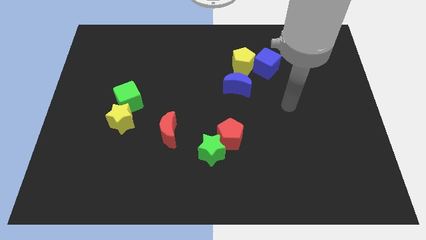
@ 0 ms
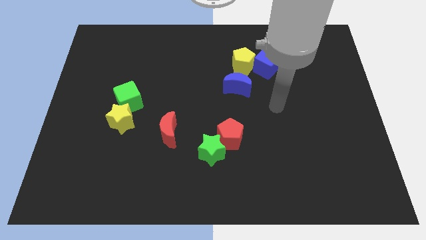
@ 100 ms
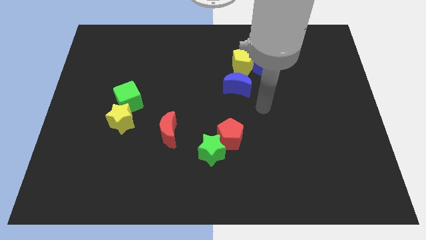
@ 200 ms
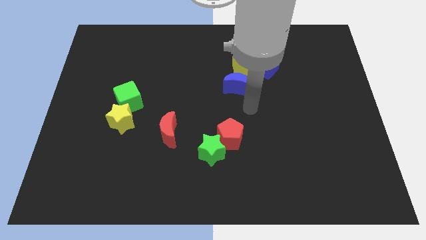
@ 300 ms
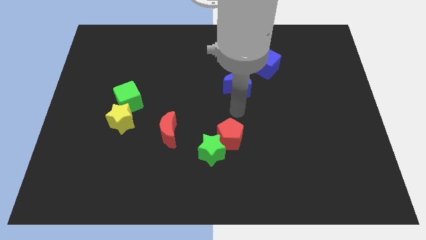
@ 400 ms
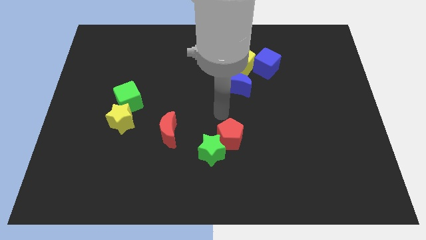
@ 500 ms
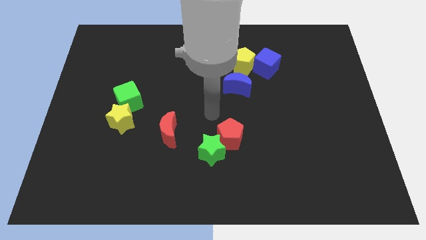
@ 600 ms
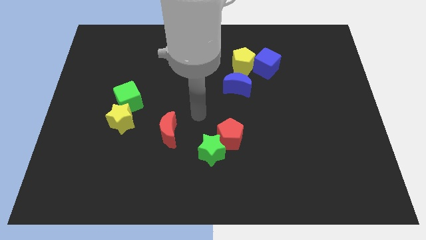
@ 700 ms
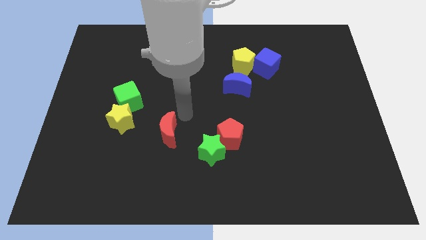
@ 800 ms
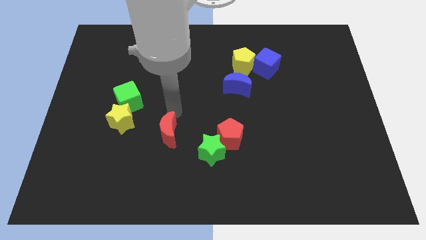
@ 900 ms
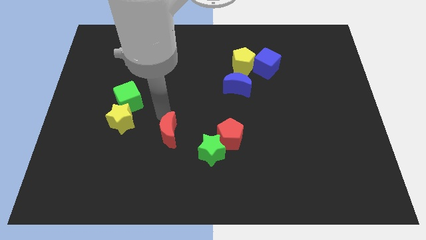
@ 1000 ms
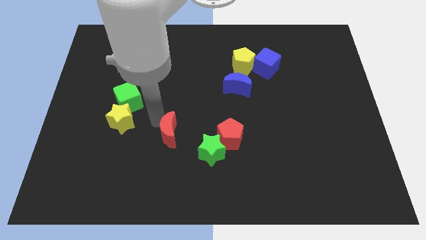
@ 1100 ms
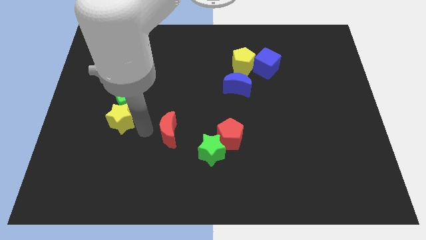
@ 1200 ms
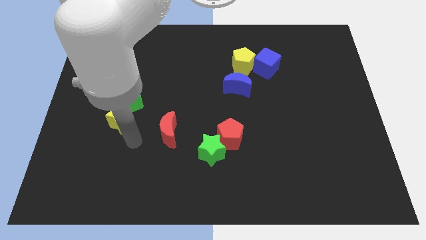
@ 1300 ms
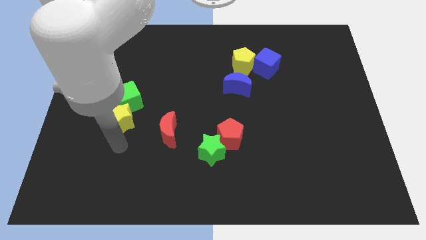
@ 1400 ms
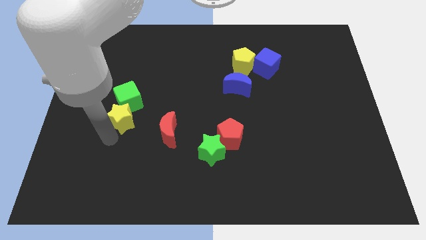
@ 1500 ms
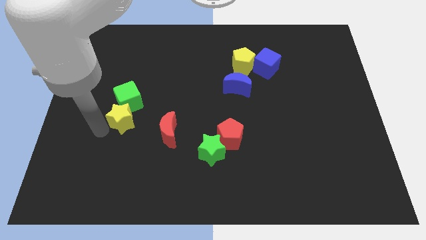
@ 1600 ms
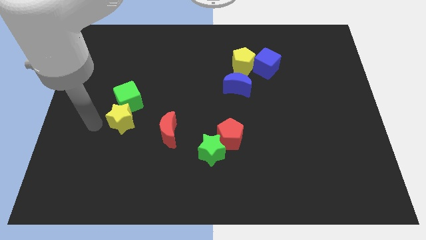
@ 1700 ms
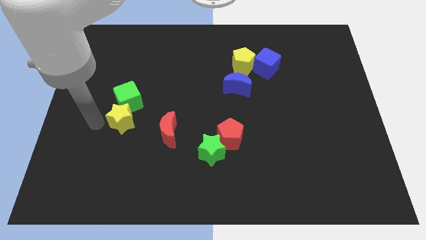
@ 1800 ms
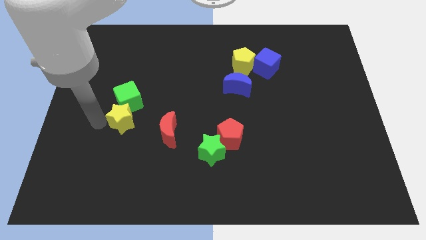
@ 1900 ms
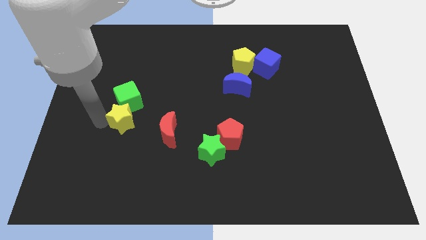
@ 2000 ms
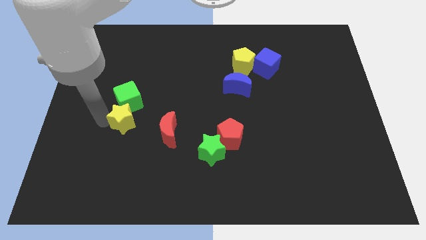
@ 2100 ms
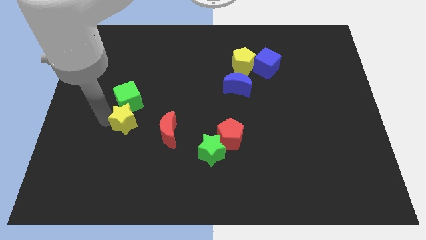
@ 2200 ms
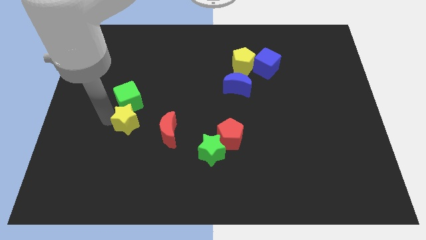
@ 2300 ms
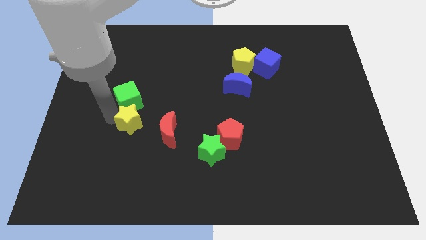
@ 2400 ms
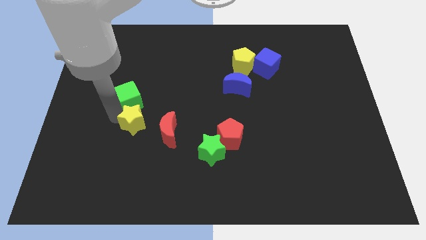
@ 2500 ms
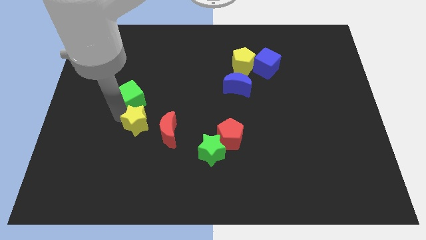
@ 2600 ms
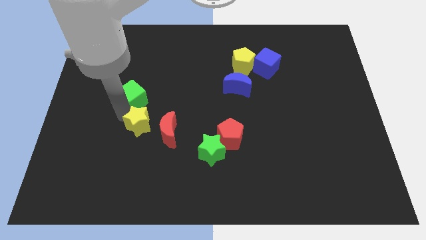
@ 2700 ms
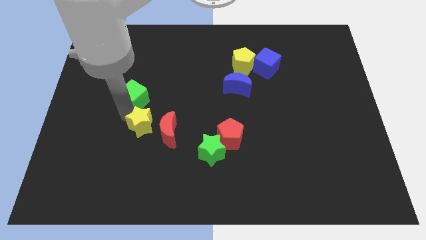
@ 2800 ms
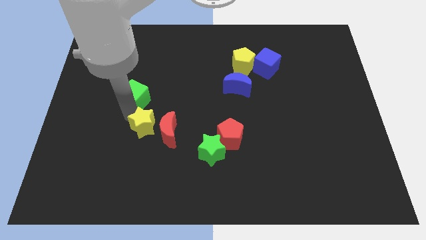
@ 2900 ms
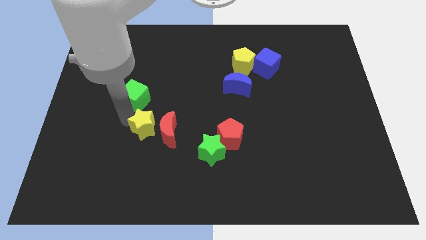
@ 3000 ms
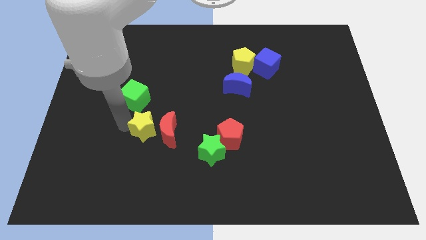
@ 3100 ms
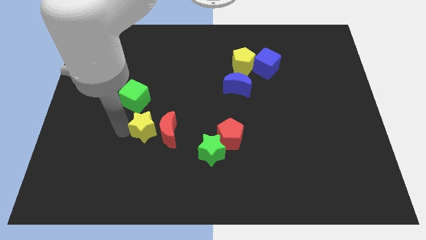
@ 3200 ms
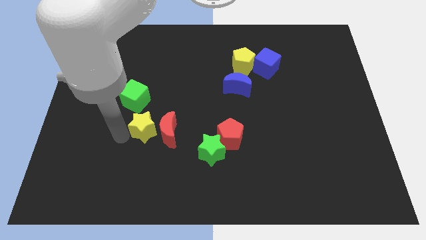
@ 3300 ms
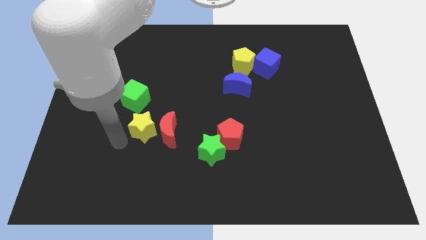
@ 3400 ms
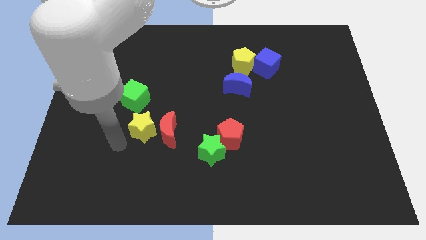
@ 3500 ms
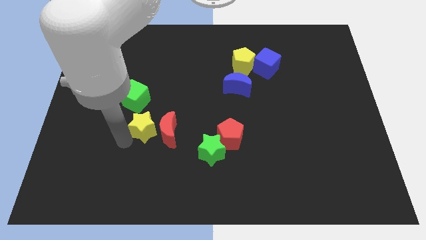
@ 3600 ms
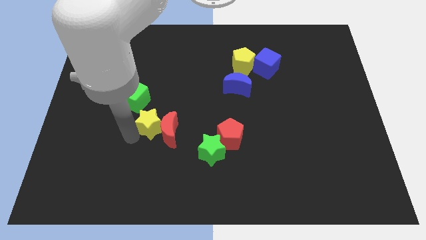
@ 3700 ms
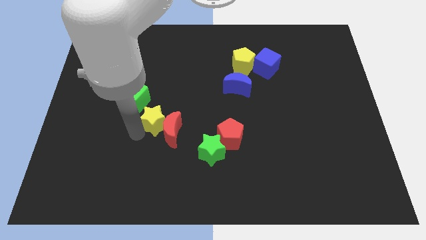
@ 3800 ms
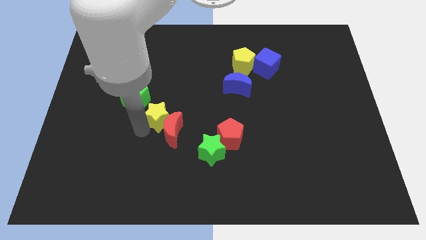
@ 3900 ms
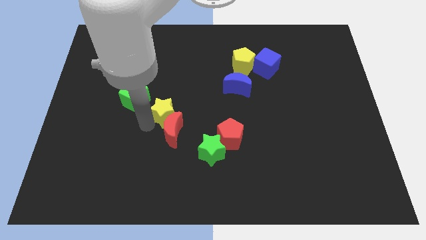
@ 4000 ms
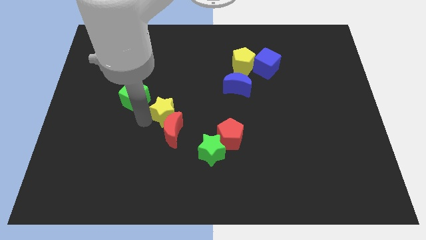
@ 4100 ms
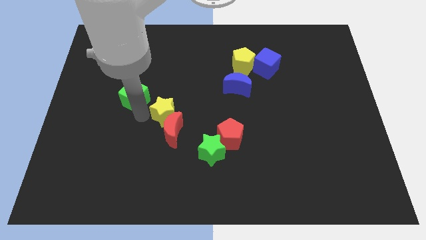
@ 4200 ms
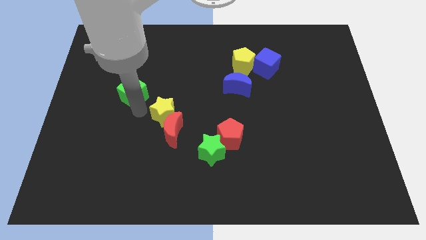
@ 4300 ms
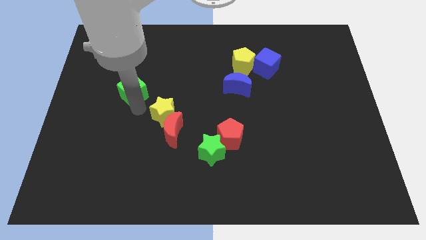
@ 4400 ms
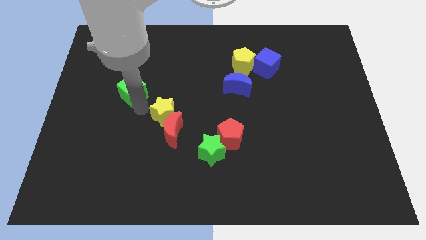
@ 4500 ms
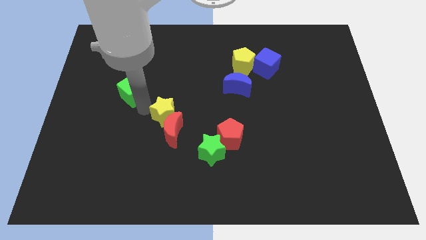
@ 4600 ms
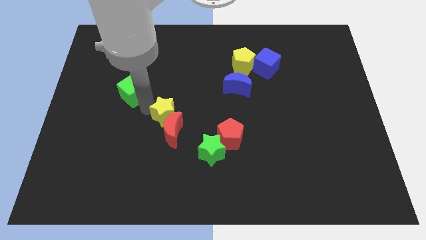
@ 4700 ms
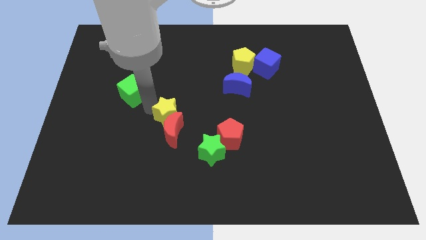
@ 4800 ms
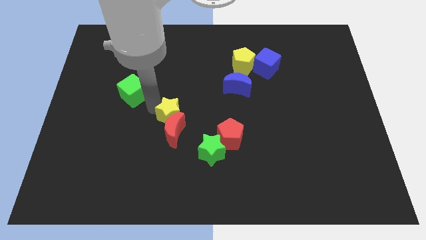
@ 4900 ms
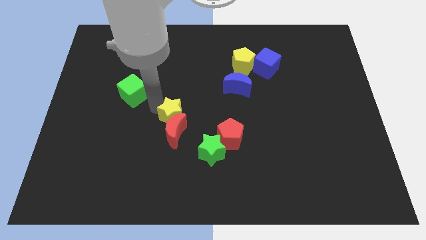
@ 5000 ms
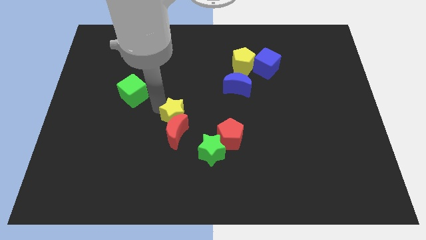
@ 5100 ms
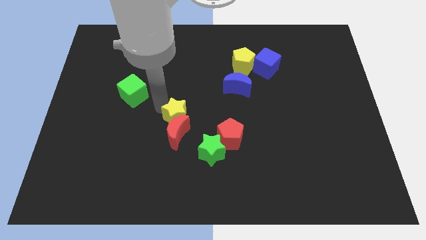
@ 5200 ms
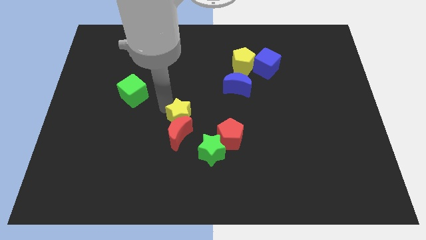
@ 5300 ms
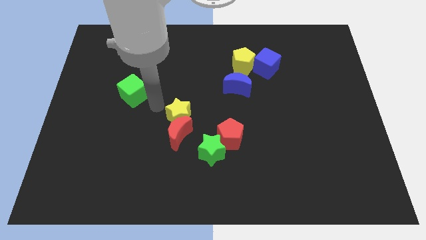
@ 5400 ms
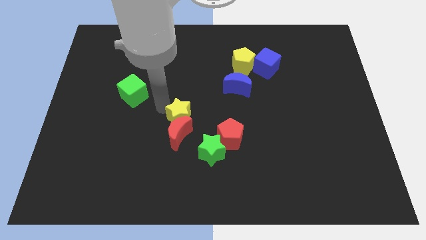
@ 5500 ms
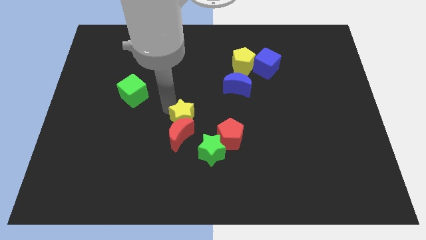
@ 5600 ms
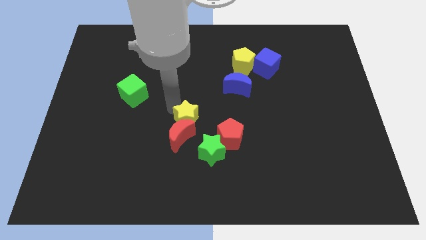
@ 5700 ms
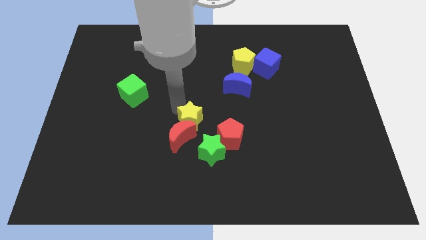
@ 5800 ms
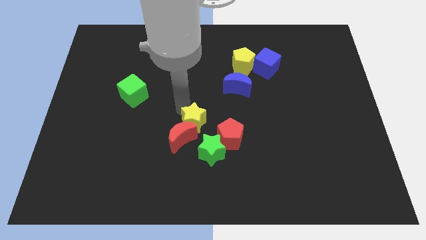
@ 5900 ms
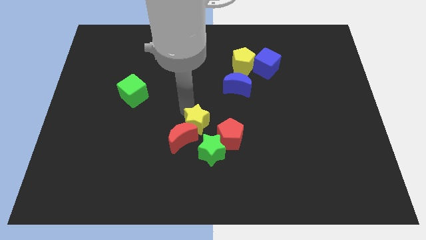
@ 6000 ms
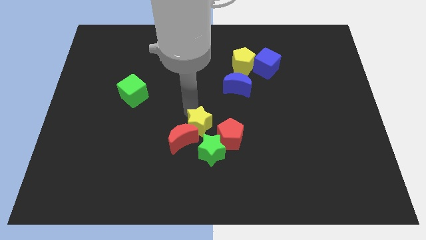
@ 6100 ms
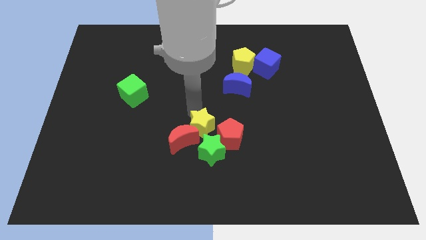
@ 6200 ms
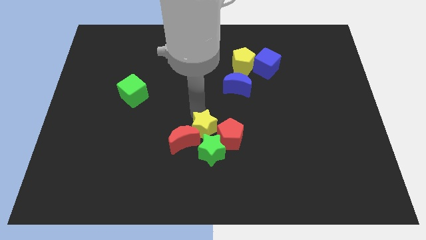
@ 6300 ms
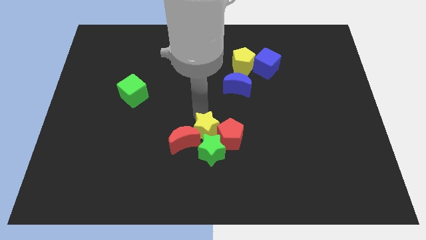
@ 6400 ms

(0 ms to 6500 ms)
slide the yellow star close to the red pentagon

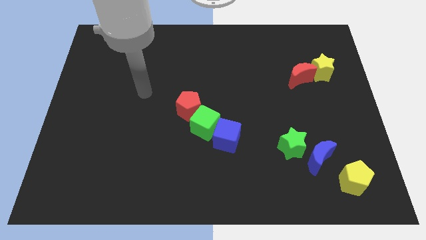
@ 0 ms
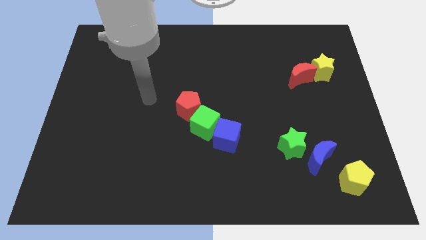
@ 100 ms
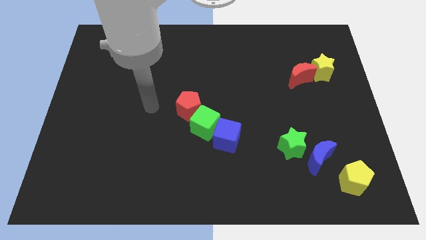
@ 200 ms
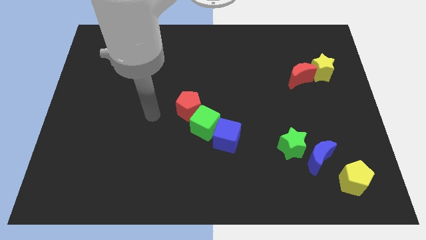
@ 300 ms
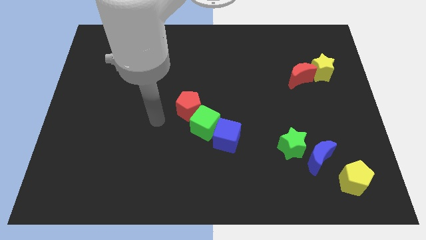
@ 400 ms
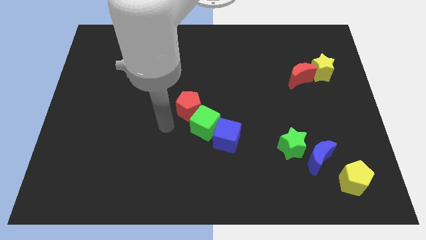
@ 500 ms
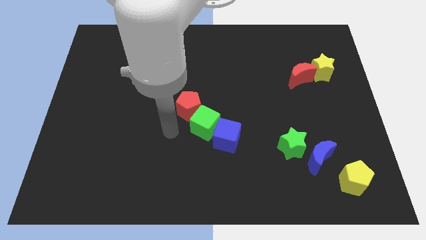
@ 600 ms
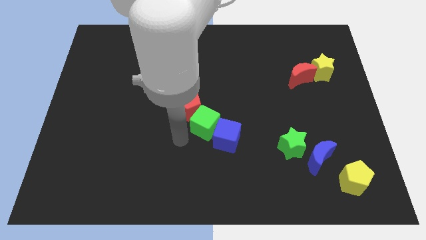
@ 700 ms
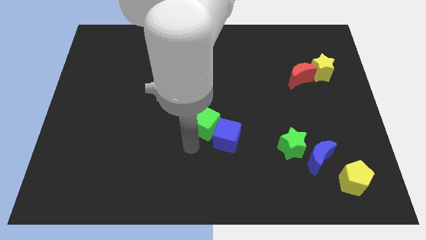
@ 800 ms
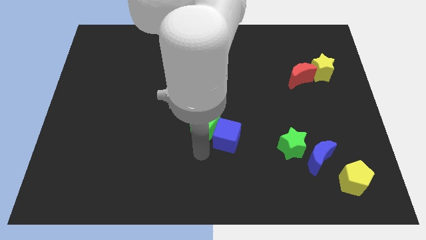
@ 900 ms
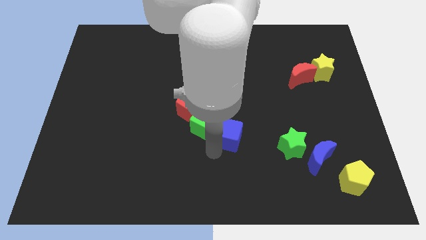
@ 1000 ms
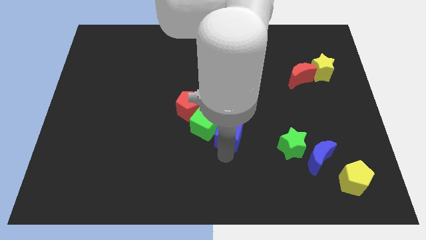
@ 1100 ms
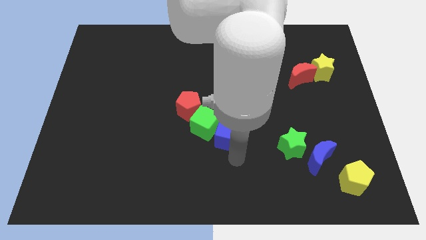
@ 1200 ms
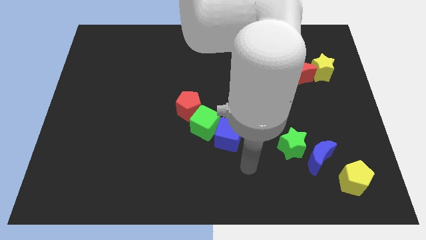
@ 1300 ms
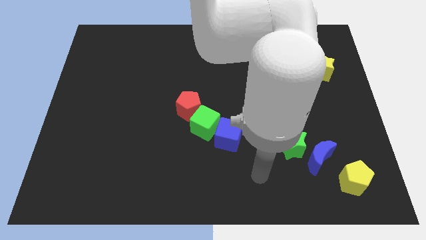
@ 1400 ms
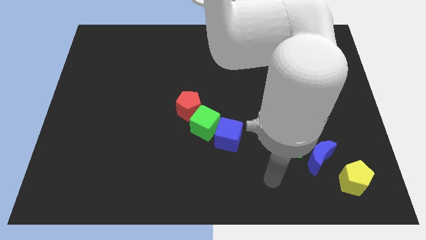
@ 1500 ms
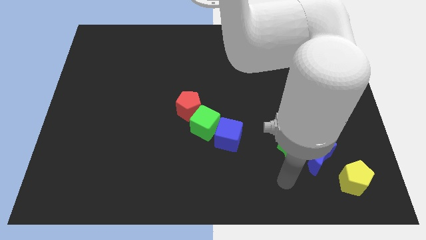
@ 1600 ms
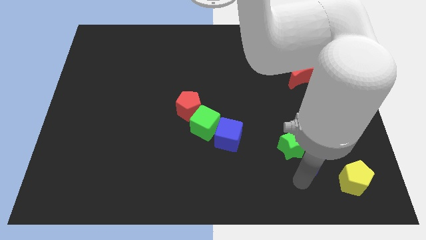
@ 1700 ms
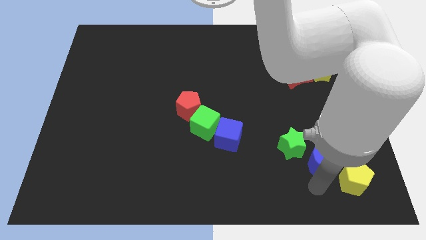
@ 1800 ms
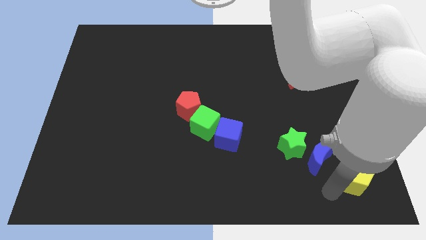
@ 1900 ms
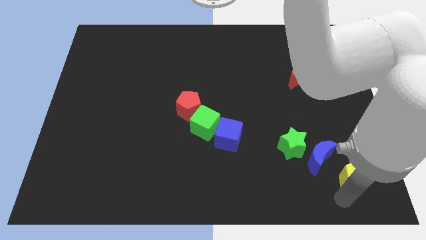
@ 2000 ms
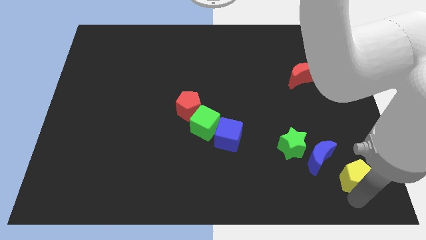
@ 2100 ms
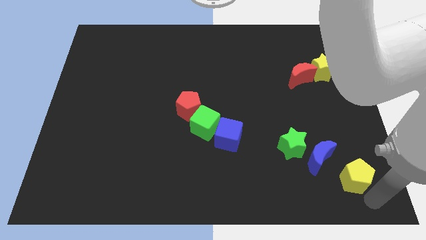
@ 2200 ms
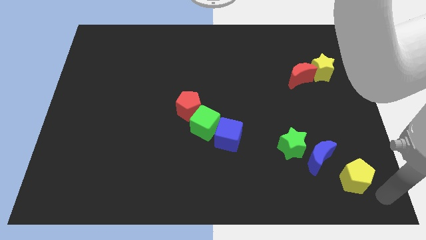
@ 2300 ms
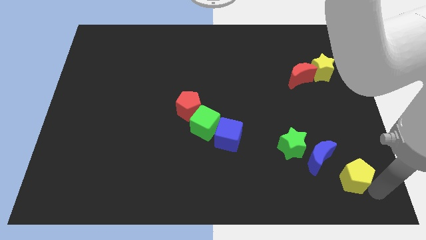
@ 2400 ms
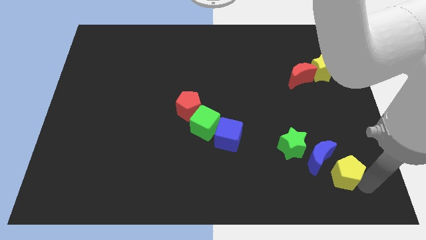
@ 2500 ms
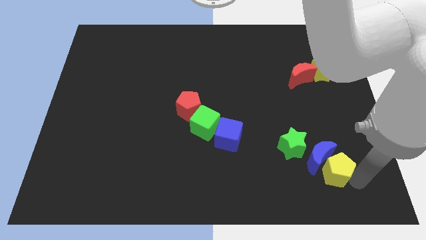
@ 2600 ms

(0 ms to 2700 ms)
slide the yellow pentagon next to the blue moon
